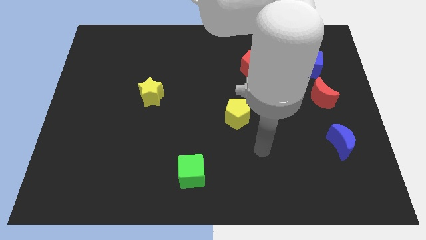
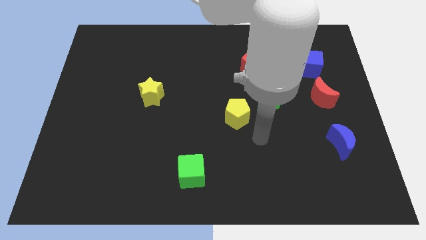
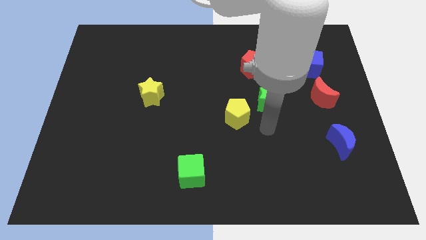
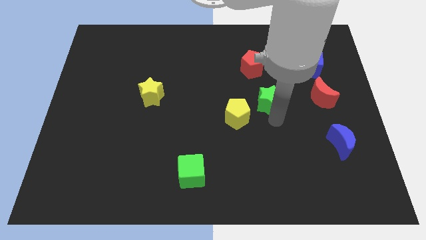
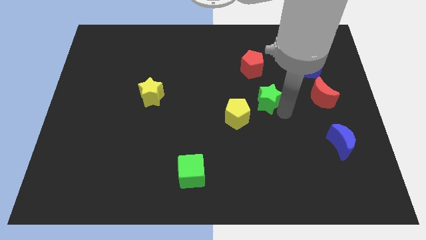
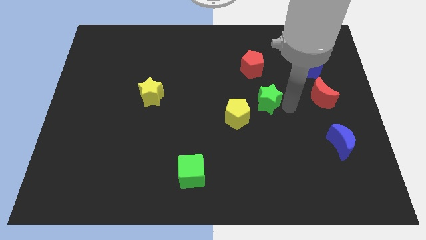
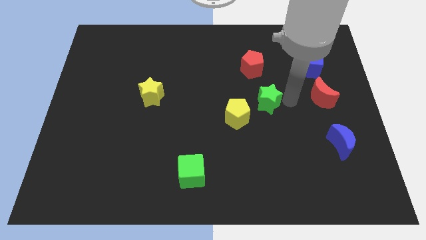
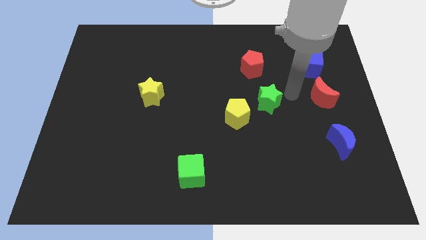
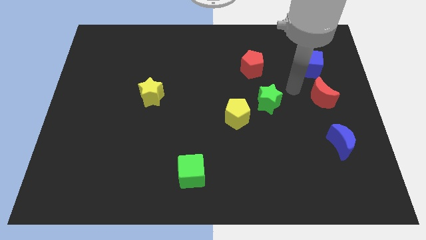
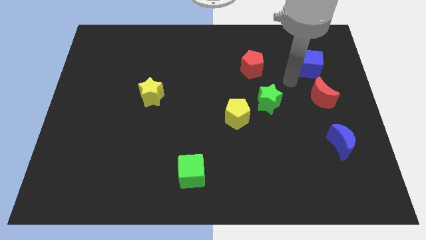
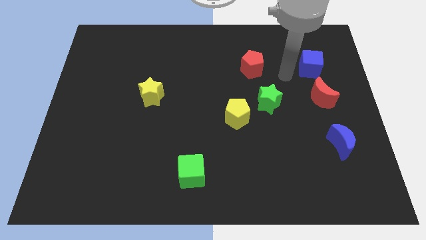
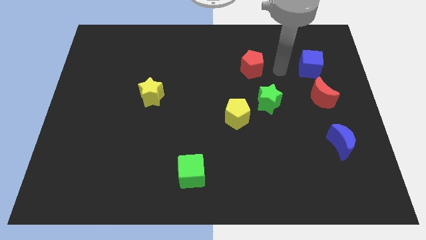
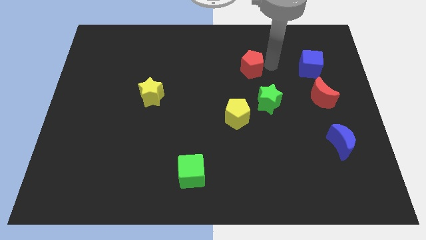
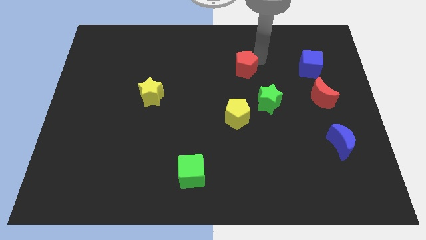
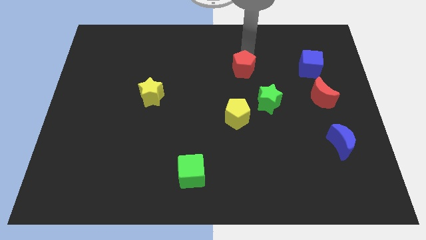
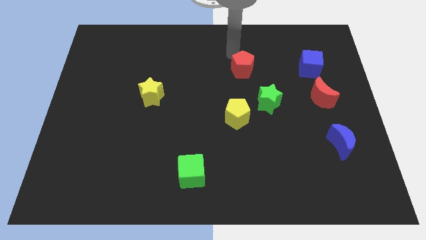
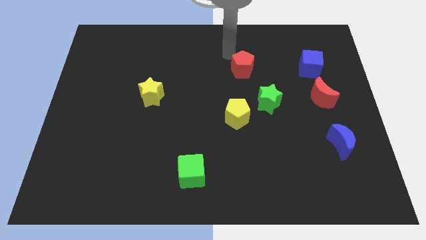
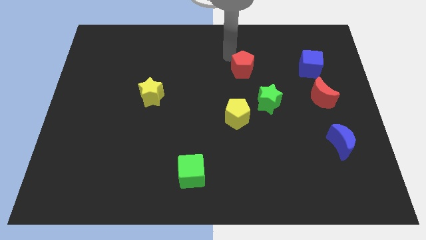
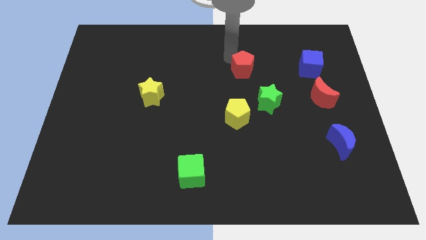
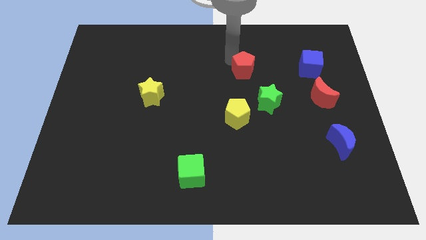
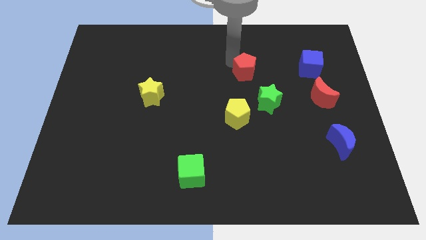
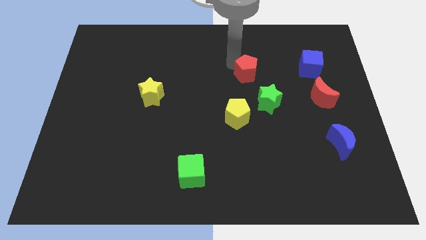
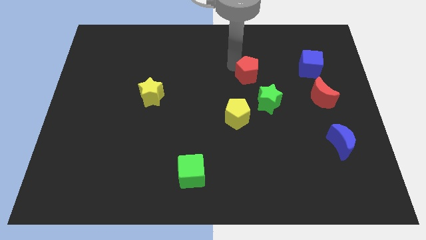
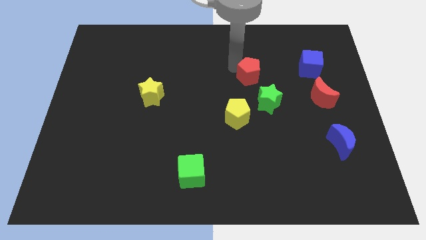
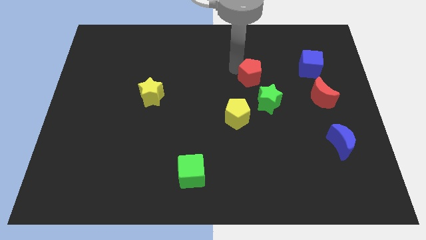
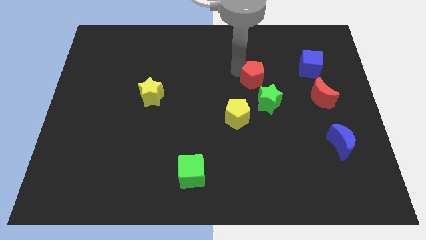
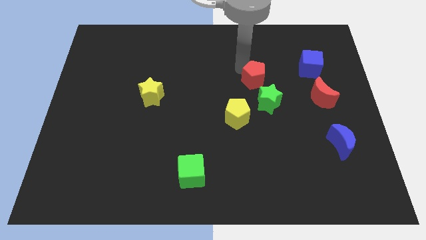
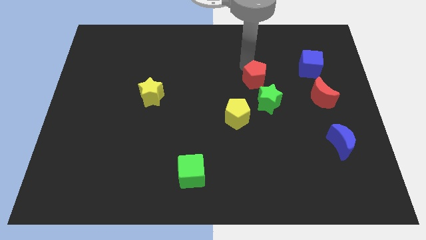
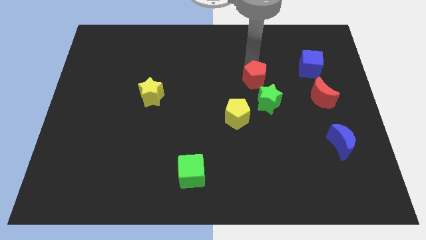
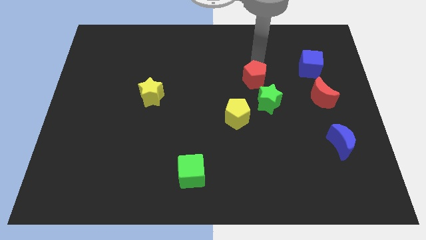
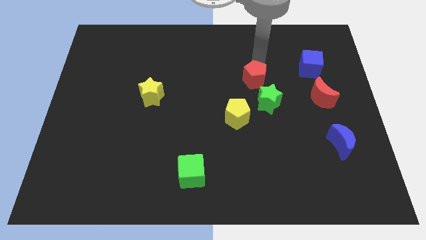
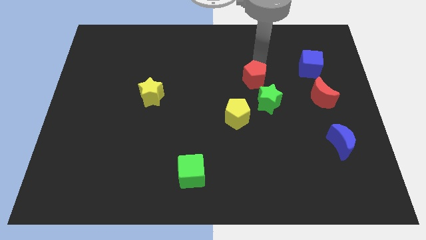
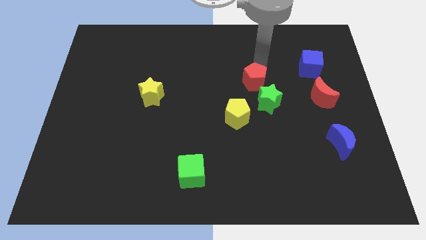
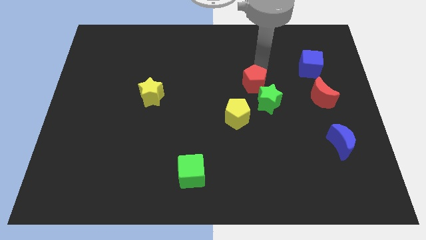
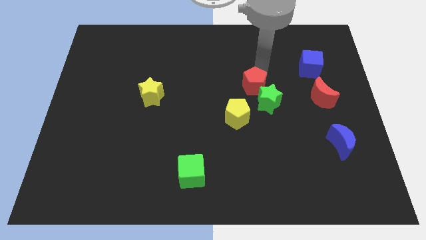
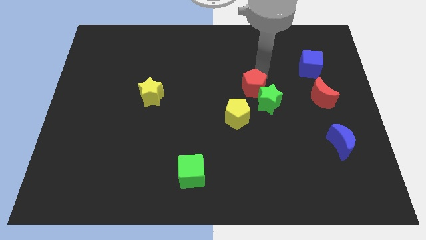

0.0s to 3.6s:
move the red pentagon a bit down

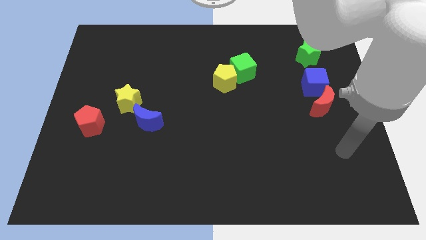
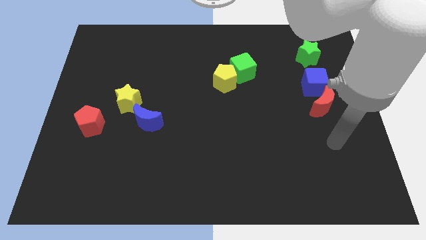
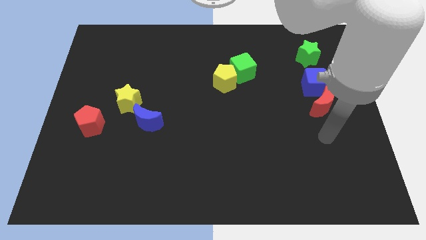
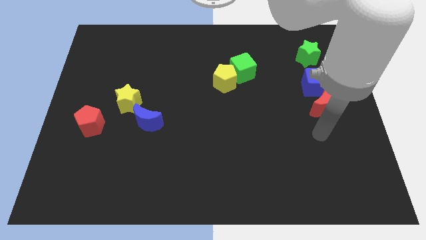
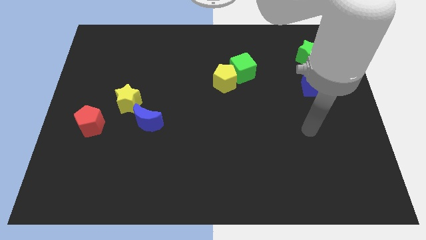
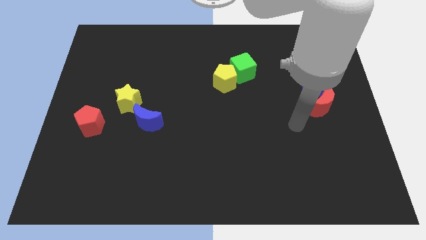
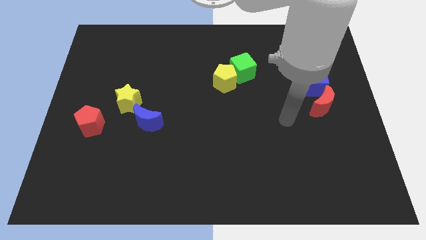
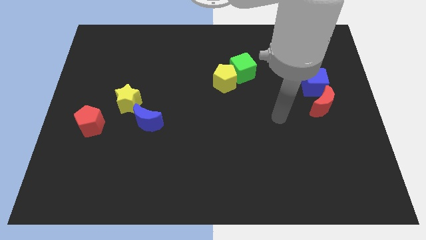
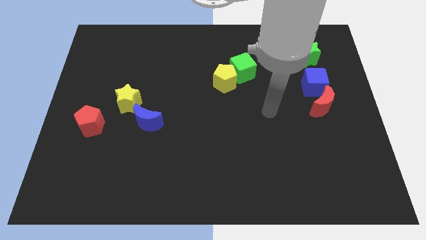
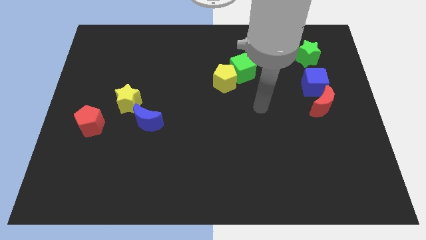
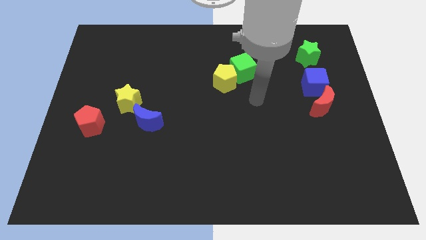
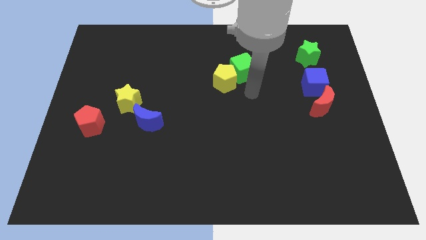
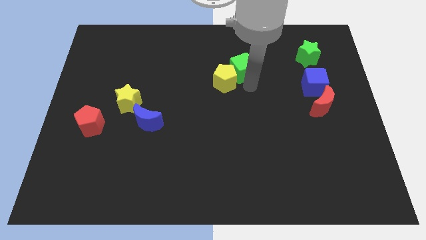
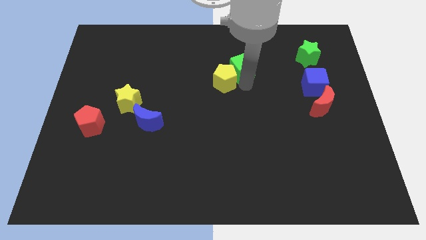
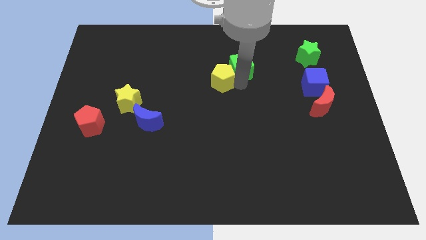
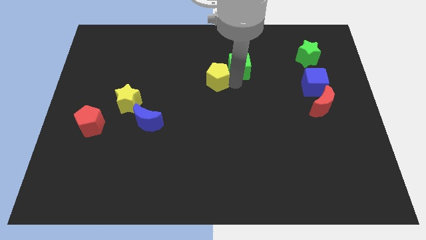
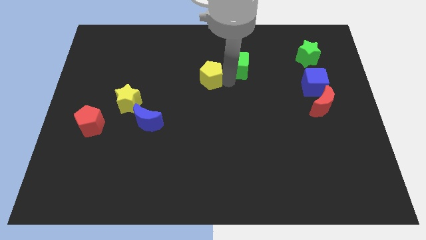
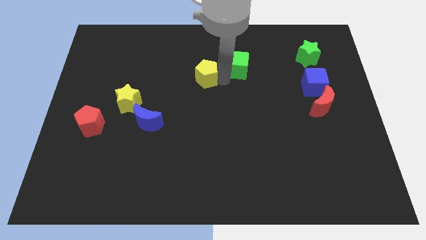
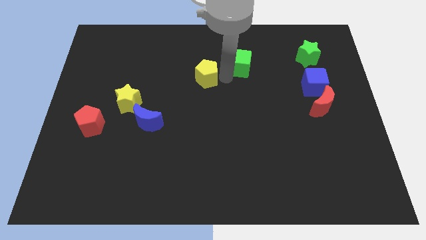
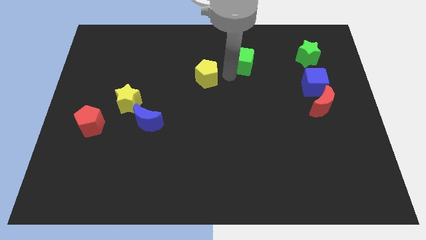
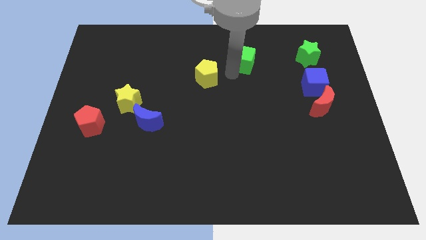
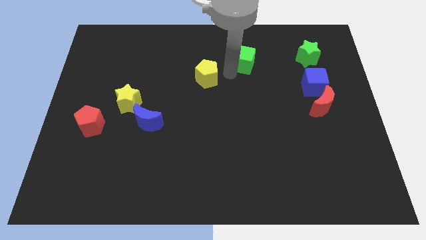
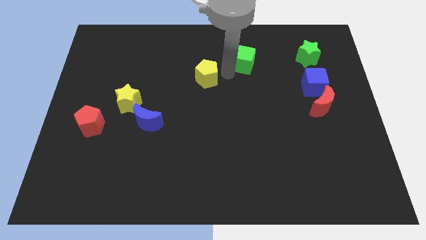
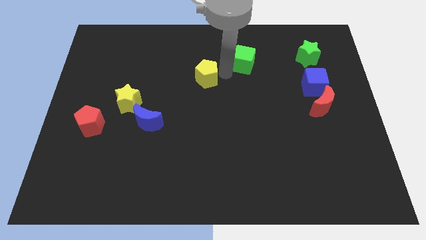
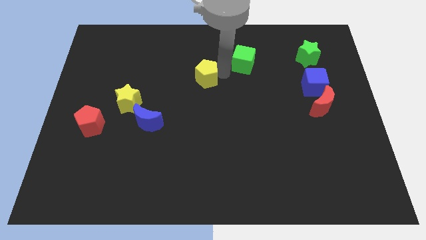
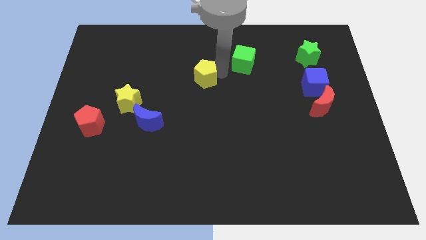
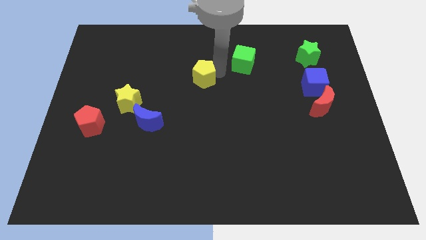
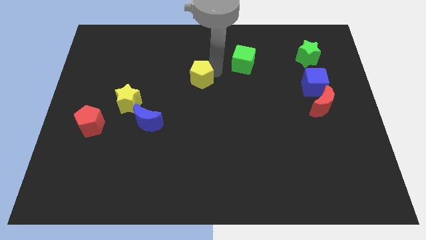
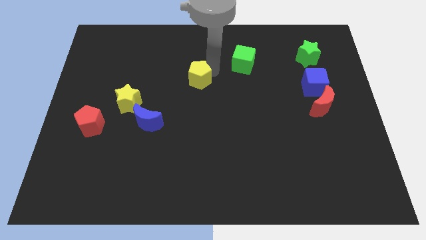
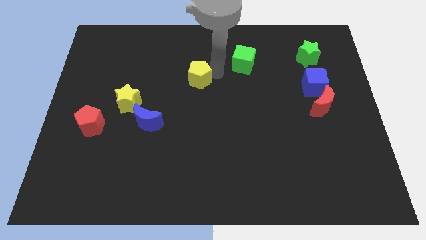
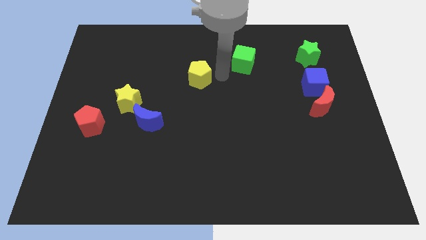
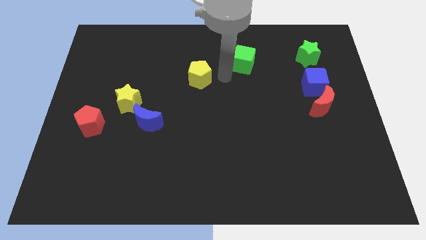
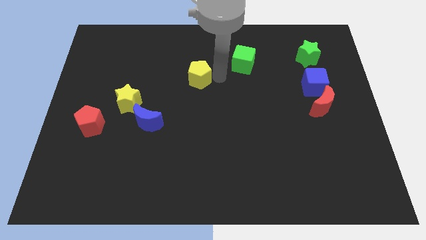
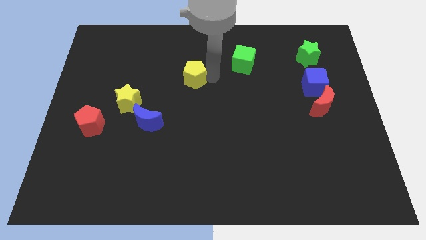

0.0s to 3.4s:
slightly slide the yellow pentagon left

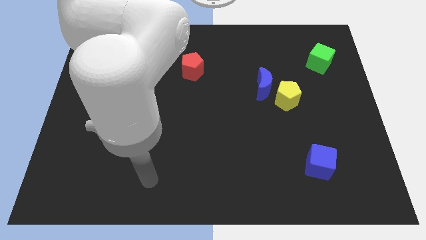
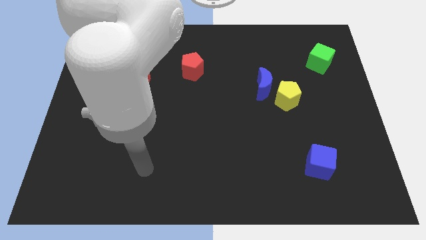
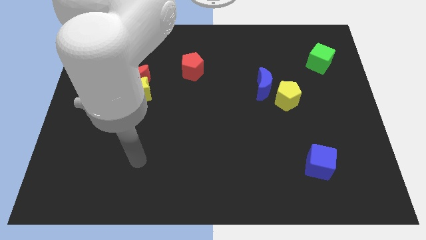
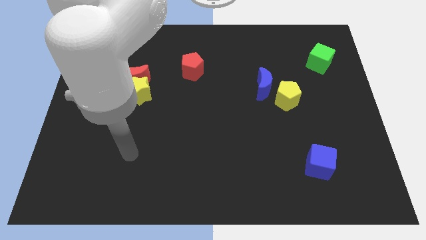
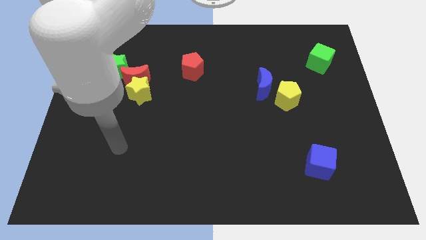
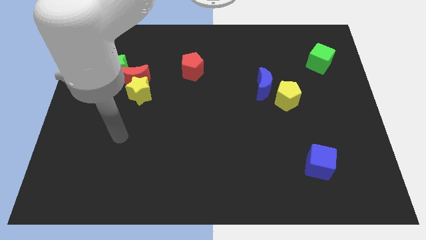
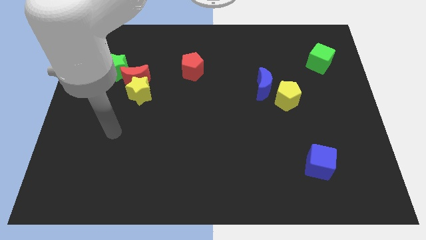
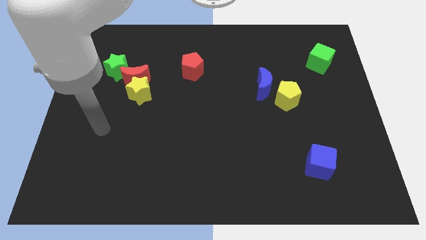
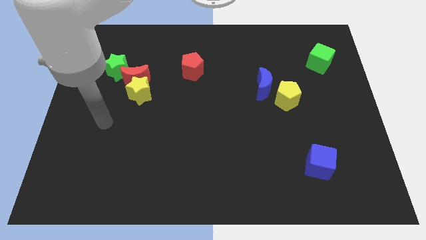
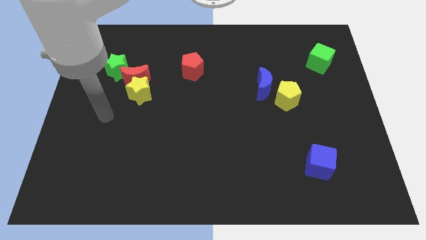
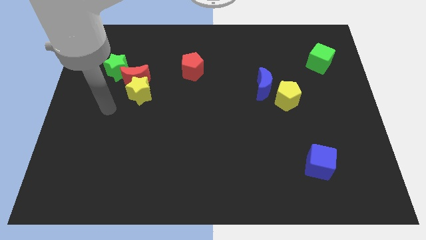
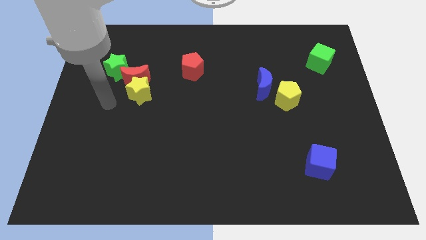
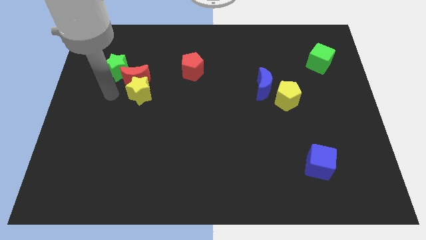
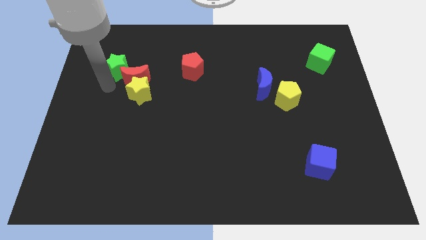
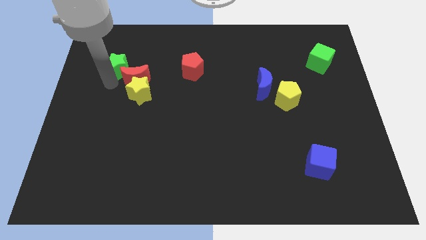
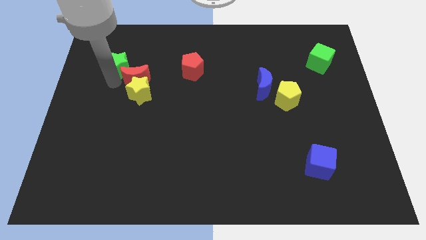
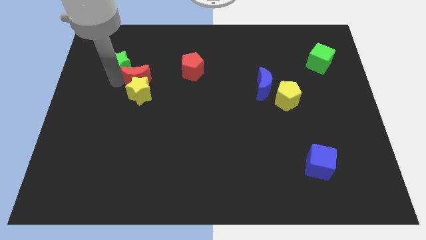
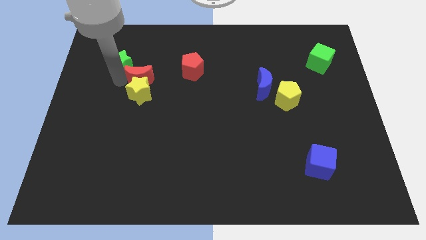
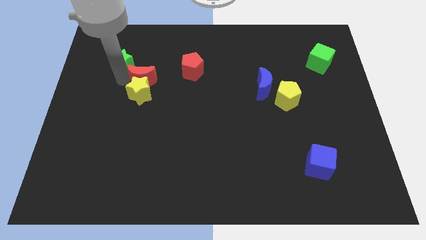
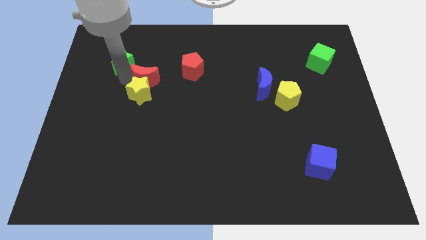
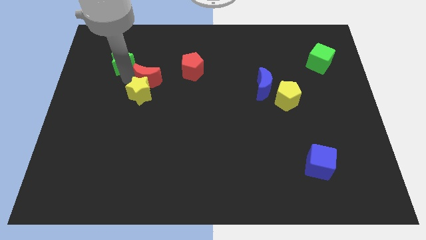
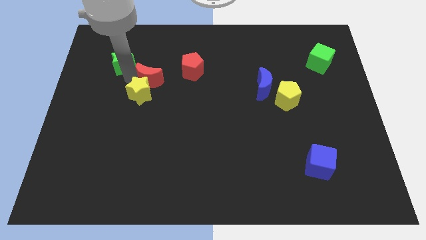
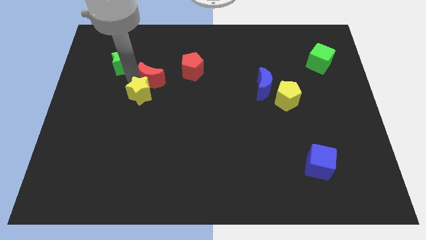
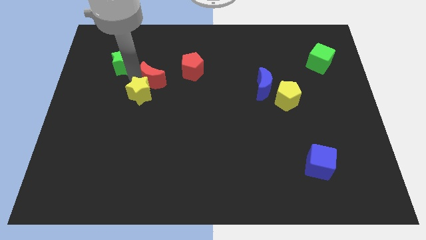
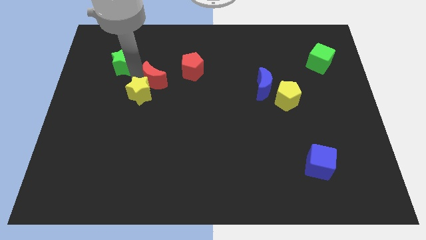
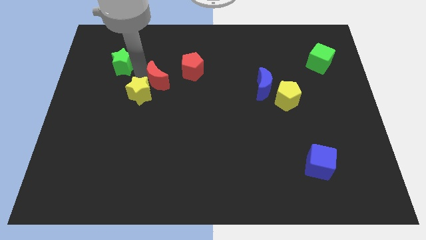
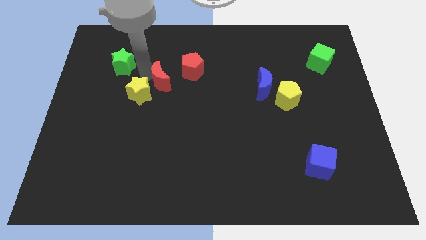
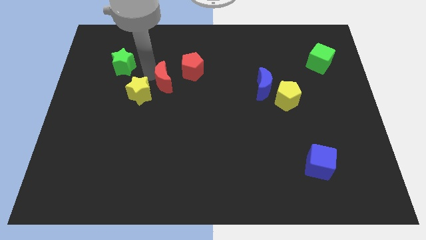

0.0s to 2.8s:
slide the red moon right a little bit
